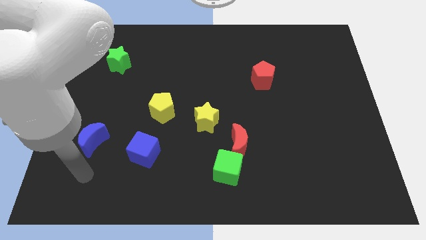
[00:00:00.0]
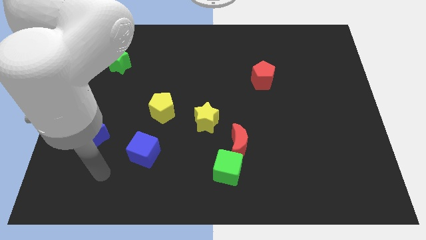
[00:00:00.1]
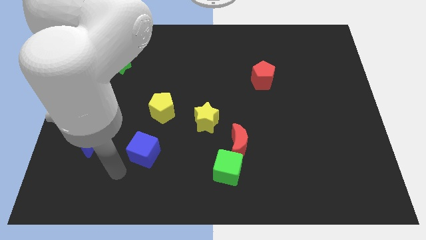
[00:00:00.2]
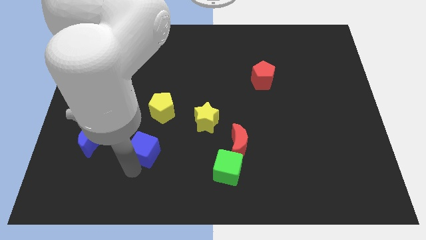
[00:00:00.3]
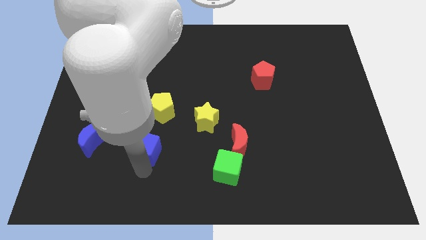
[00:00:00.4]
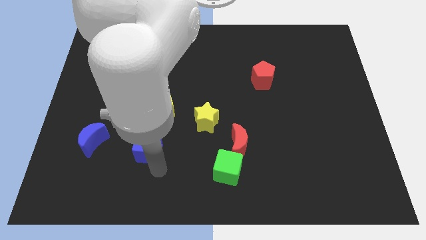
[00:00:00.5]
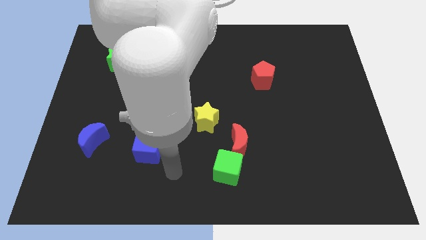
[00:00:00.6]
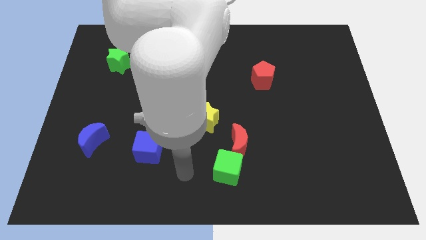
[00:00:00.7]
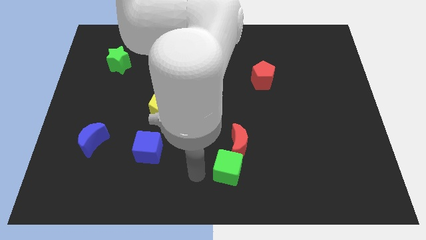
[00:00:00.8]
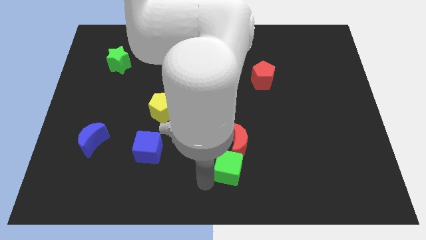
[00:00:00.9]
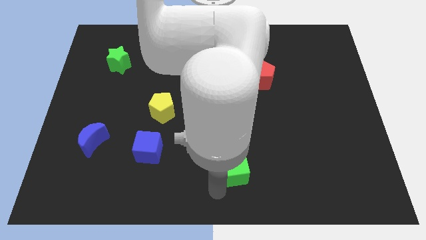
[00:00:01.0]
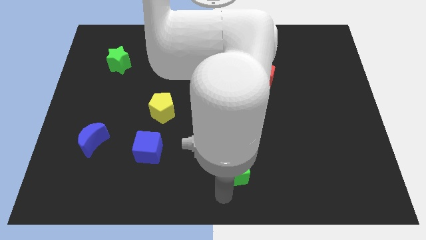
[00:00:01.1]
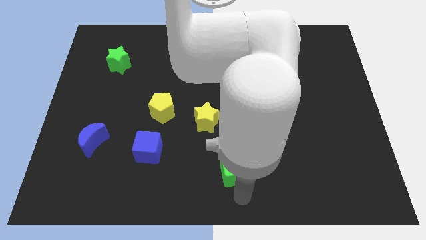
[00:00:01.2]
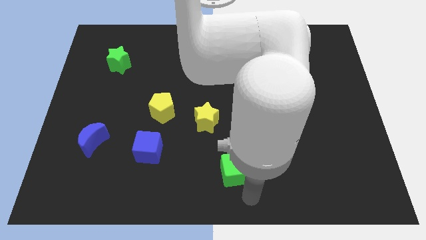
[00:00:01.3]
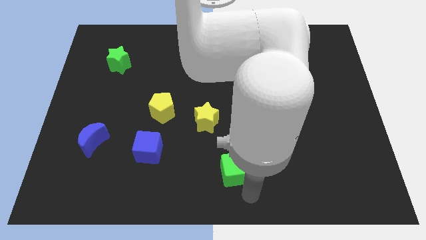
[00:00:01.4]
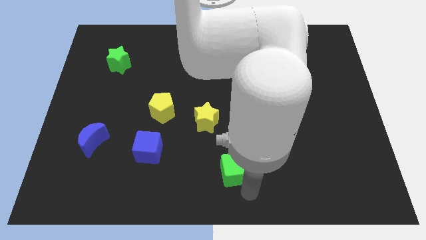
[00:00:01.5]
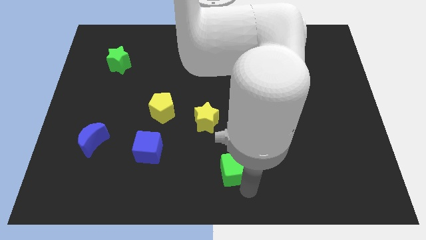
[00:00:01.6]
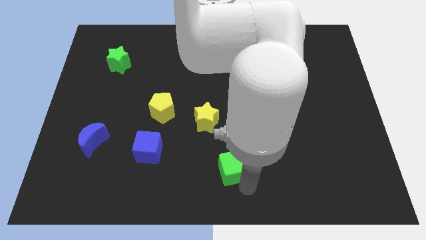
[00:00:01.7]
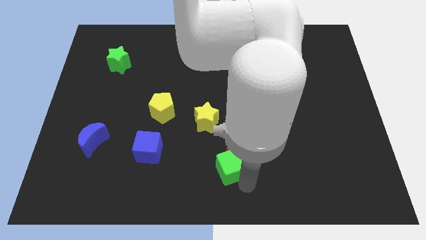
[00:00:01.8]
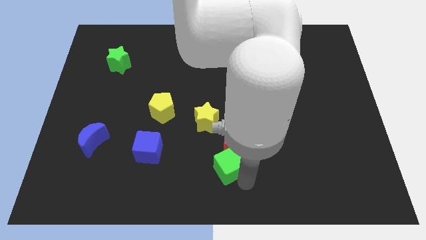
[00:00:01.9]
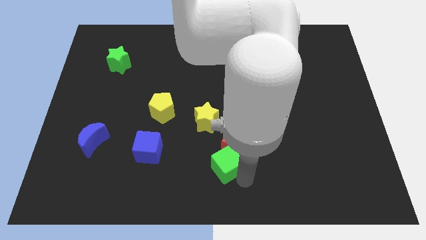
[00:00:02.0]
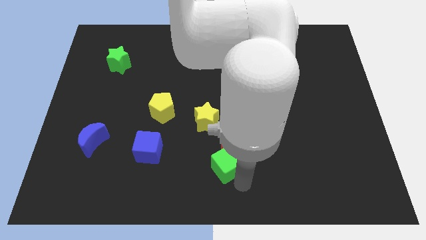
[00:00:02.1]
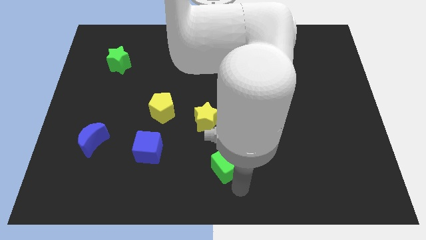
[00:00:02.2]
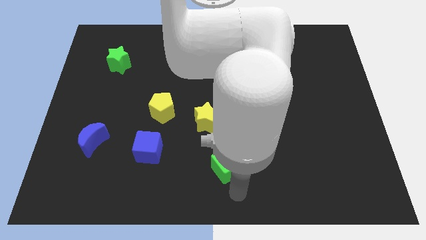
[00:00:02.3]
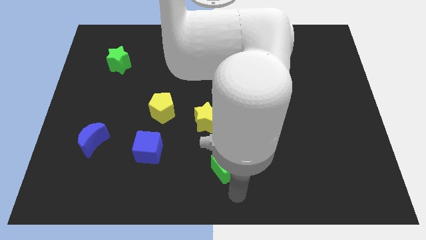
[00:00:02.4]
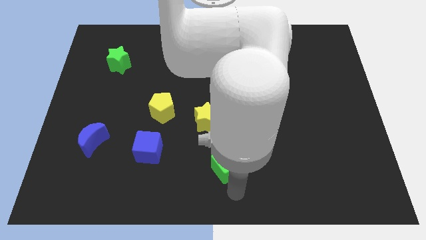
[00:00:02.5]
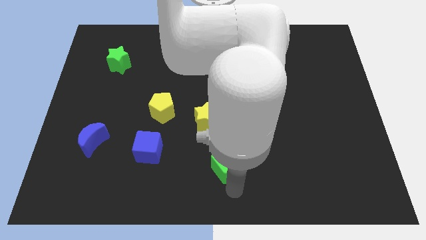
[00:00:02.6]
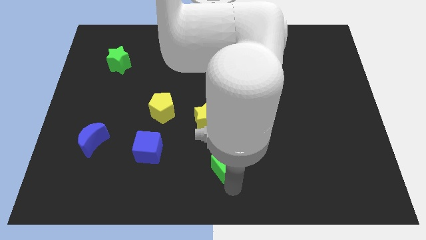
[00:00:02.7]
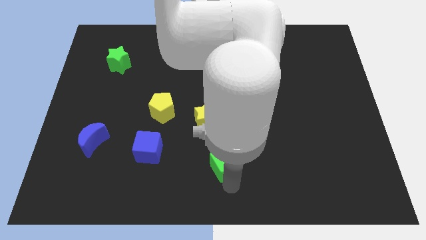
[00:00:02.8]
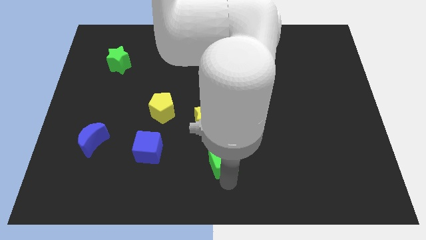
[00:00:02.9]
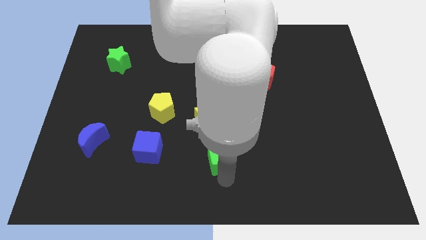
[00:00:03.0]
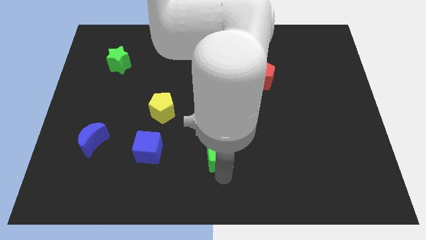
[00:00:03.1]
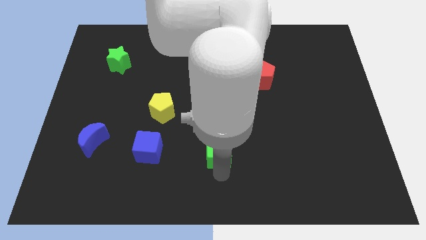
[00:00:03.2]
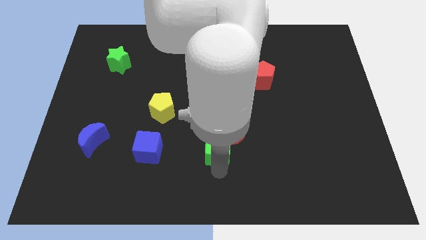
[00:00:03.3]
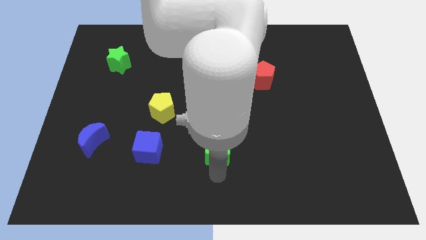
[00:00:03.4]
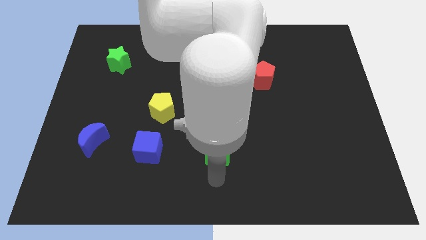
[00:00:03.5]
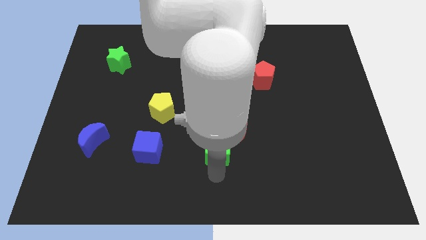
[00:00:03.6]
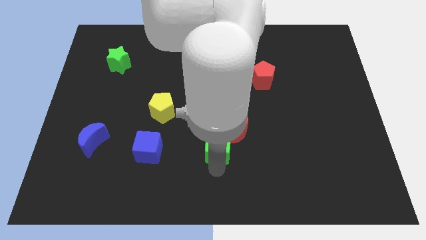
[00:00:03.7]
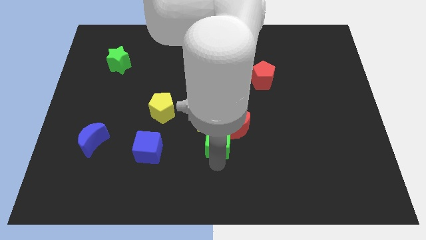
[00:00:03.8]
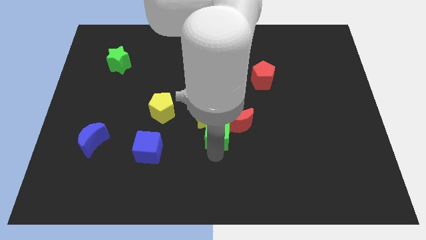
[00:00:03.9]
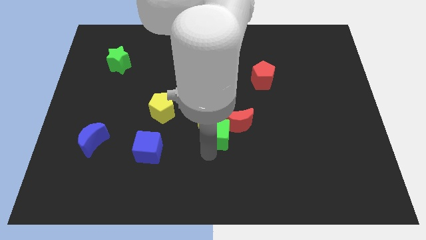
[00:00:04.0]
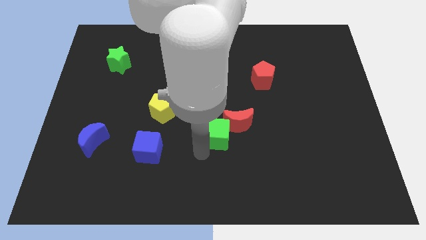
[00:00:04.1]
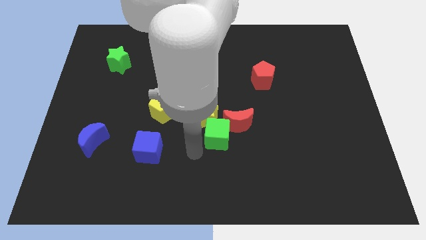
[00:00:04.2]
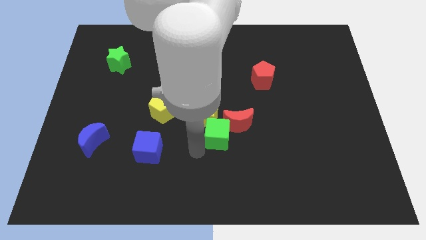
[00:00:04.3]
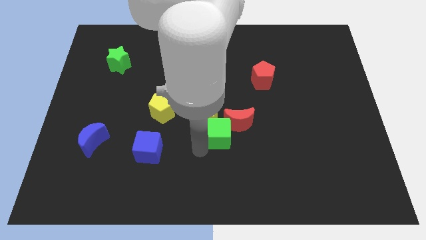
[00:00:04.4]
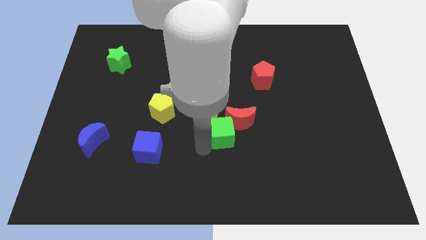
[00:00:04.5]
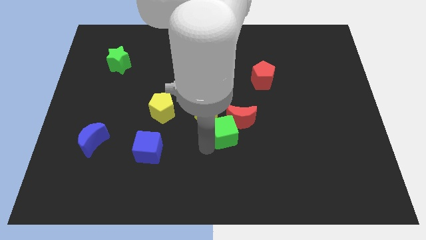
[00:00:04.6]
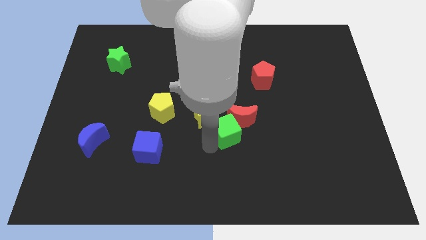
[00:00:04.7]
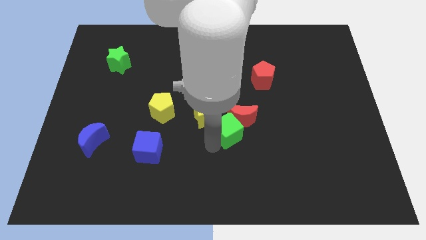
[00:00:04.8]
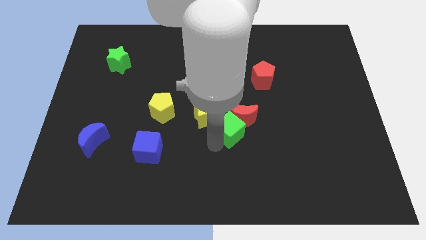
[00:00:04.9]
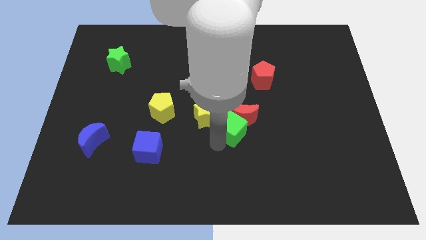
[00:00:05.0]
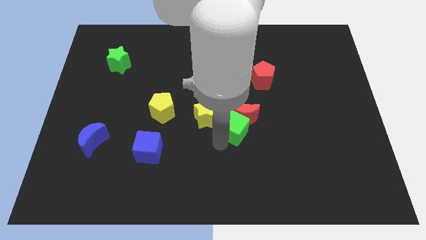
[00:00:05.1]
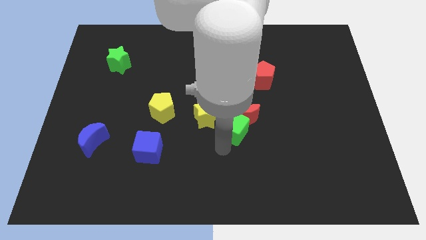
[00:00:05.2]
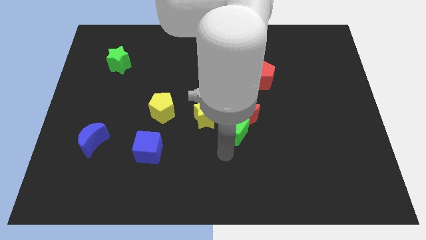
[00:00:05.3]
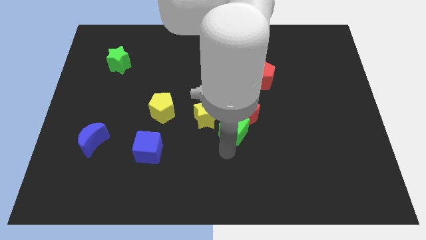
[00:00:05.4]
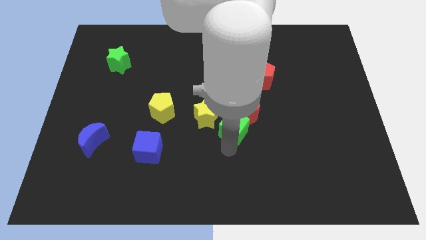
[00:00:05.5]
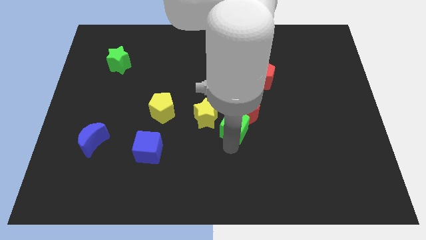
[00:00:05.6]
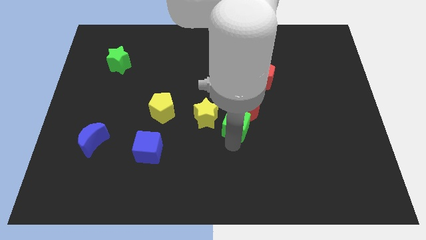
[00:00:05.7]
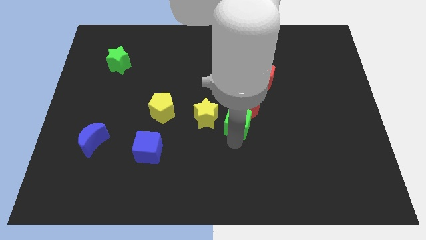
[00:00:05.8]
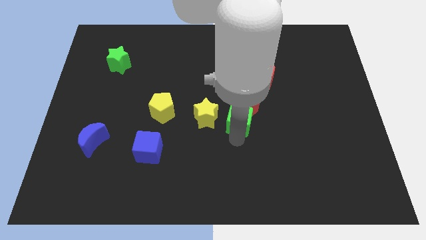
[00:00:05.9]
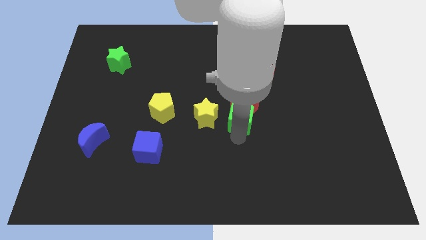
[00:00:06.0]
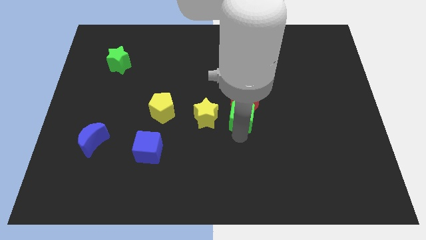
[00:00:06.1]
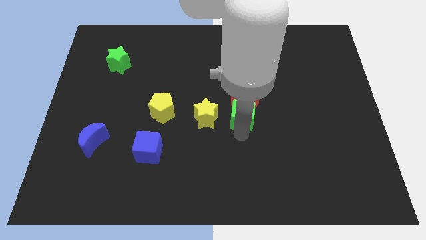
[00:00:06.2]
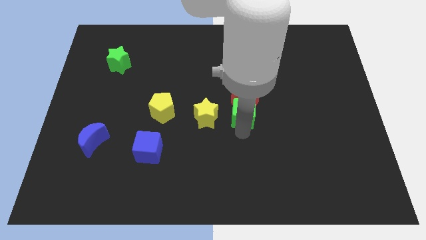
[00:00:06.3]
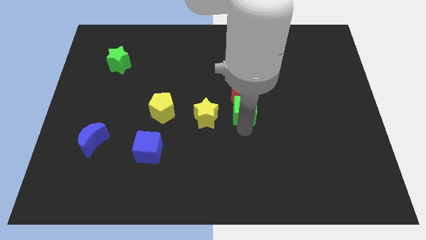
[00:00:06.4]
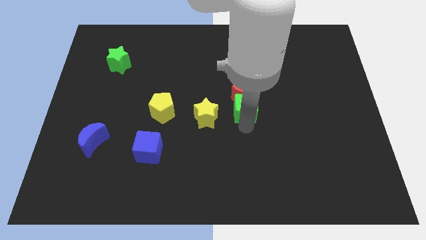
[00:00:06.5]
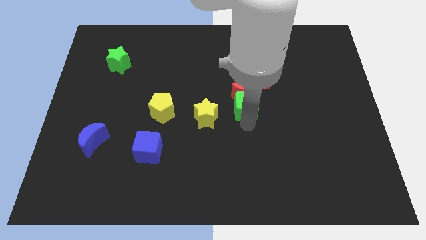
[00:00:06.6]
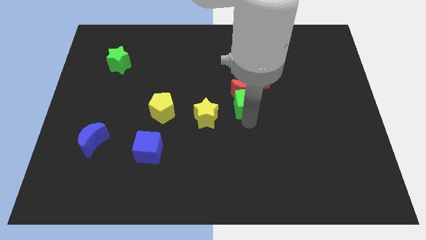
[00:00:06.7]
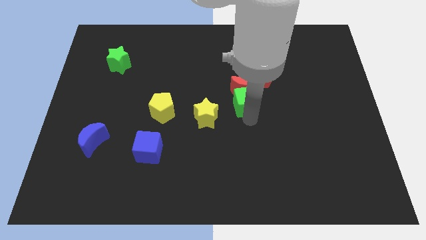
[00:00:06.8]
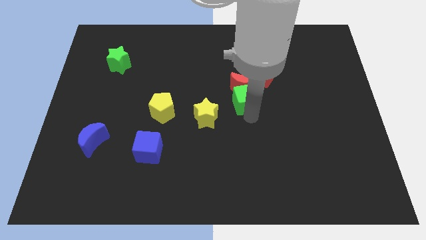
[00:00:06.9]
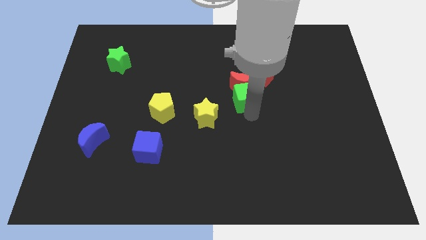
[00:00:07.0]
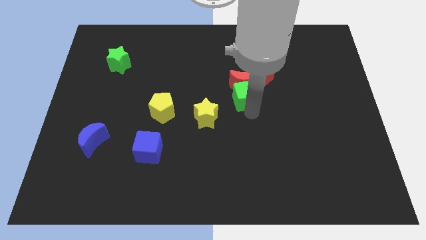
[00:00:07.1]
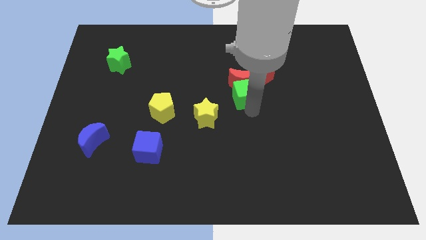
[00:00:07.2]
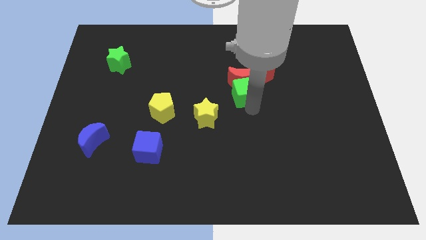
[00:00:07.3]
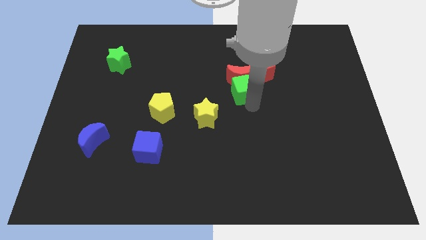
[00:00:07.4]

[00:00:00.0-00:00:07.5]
slide the green cube up

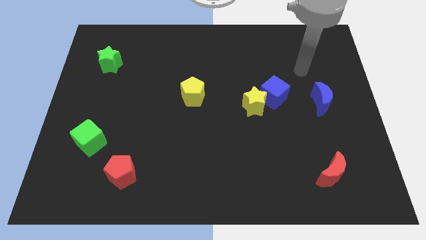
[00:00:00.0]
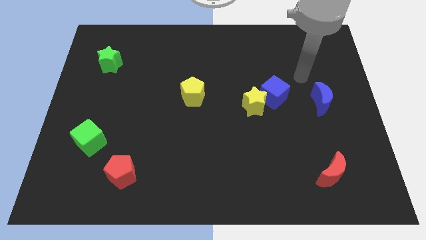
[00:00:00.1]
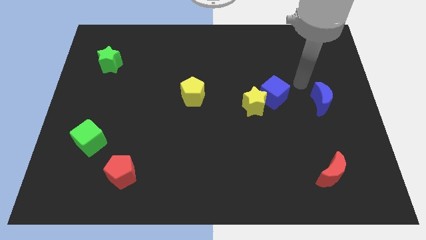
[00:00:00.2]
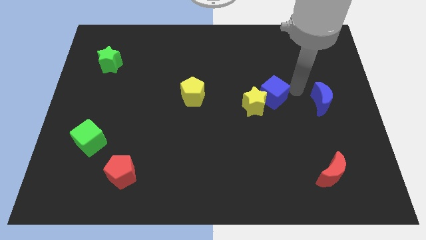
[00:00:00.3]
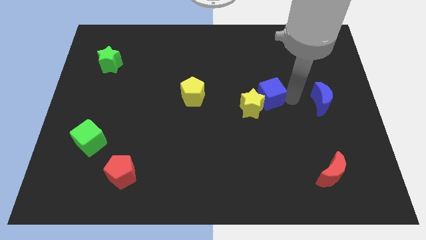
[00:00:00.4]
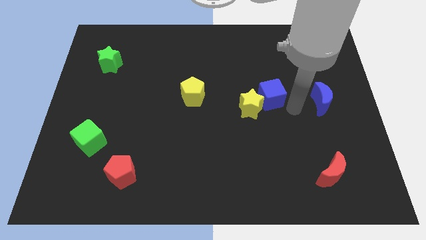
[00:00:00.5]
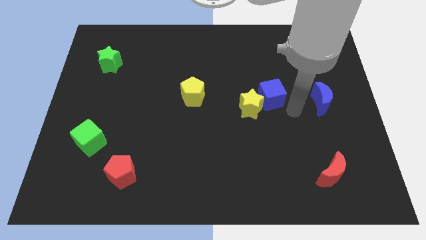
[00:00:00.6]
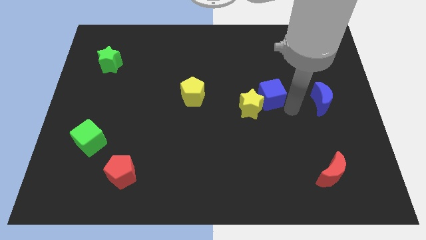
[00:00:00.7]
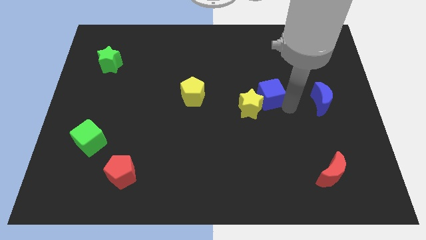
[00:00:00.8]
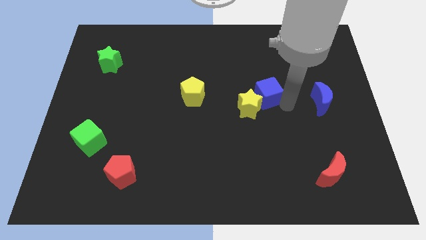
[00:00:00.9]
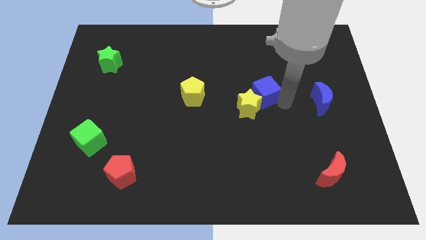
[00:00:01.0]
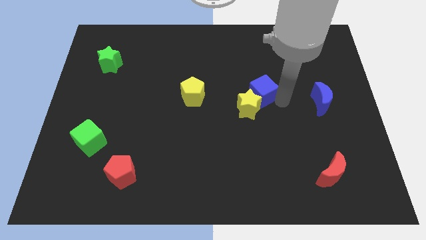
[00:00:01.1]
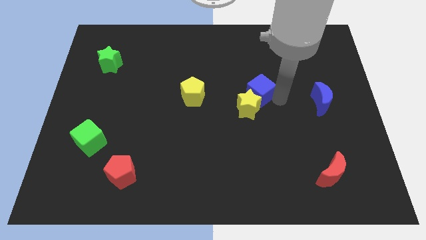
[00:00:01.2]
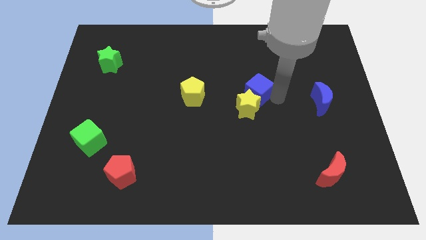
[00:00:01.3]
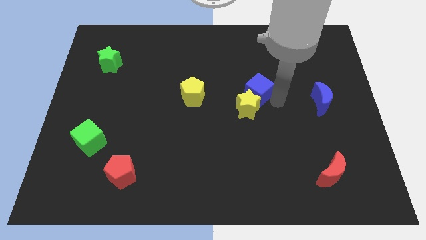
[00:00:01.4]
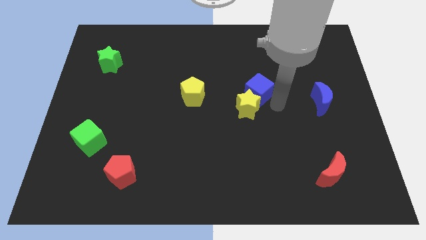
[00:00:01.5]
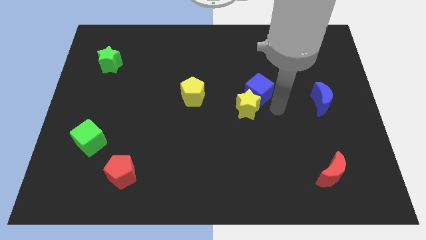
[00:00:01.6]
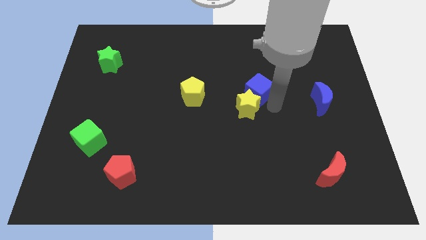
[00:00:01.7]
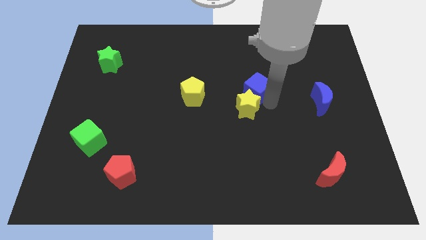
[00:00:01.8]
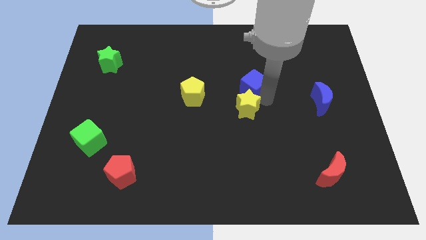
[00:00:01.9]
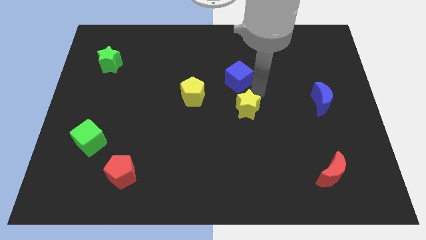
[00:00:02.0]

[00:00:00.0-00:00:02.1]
move the blue cube somewhat up and left diagonally
